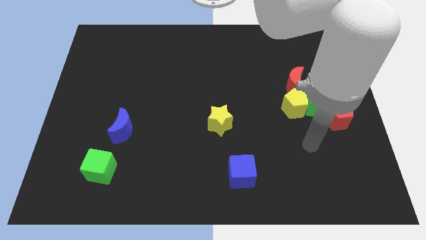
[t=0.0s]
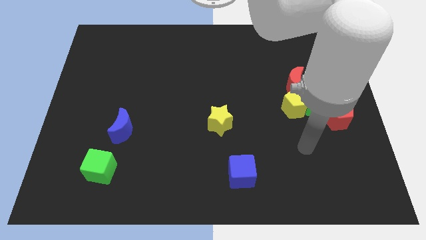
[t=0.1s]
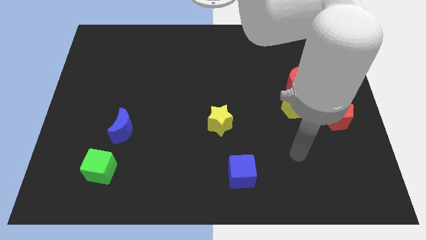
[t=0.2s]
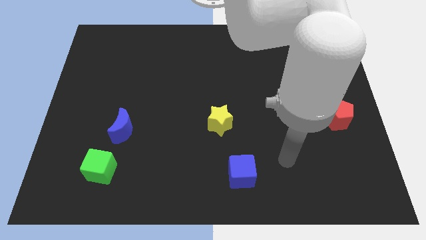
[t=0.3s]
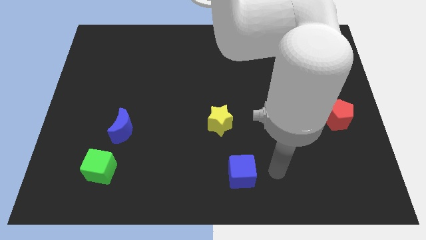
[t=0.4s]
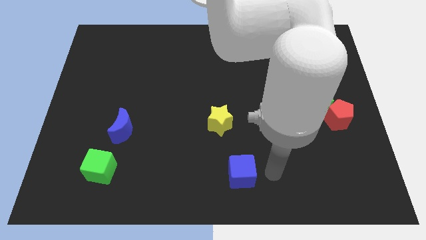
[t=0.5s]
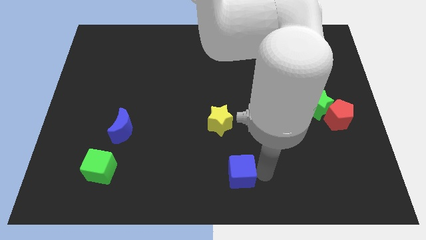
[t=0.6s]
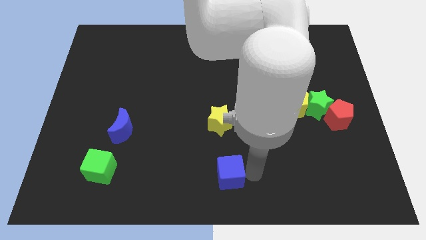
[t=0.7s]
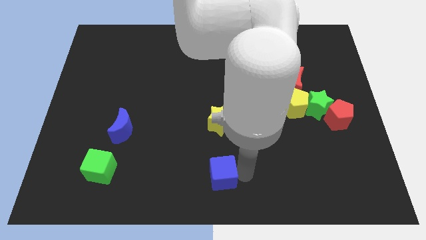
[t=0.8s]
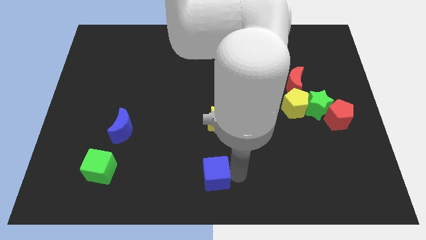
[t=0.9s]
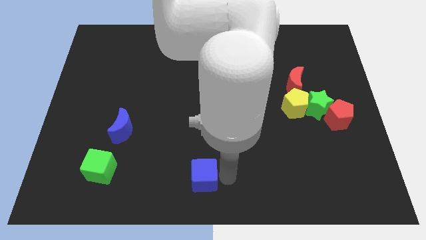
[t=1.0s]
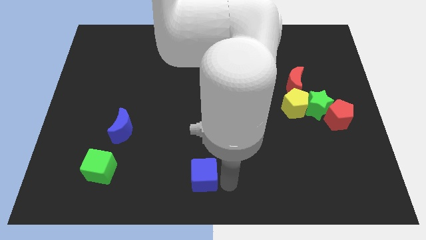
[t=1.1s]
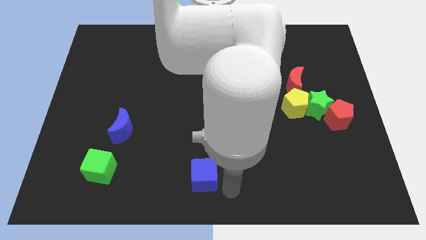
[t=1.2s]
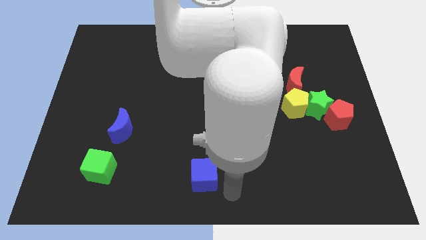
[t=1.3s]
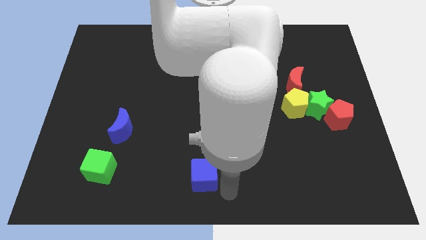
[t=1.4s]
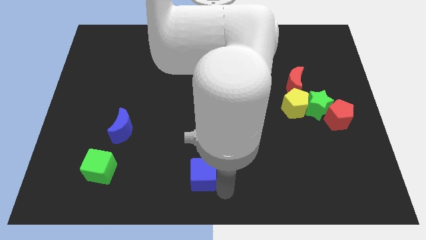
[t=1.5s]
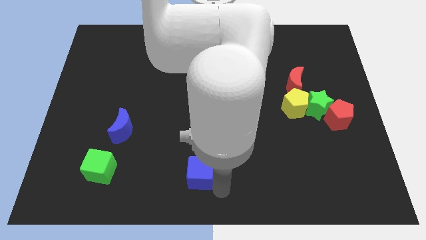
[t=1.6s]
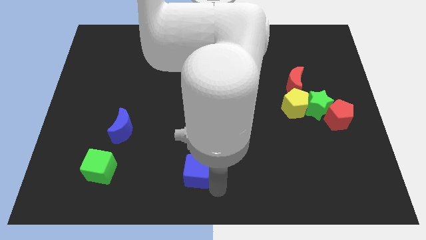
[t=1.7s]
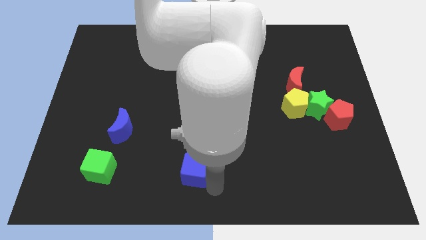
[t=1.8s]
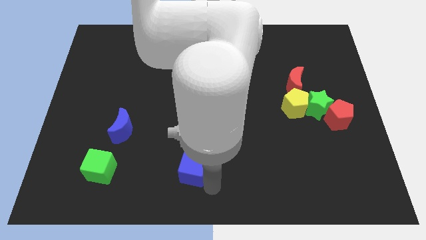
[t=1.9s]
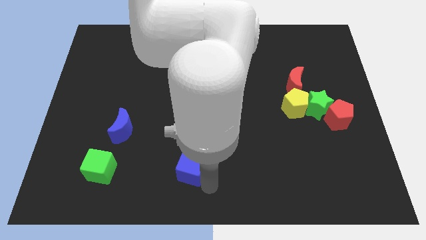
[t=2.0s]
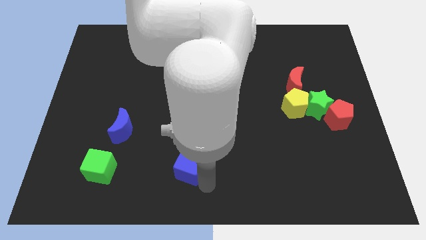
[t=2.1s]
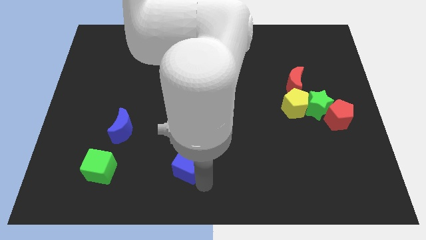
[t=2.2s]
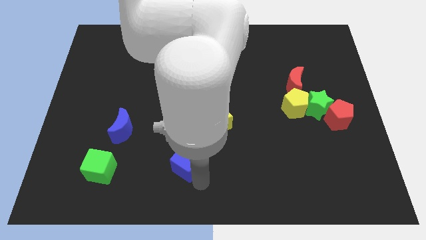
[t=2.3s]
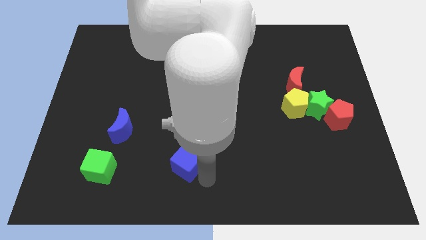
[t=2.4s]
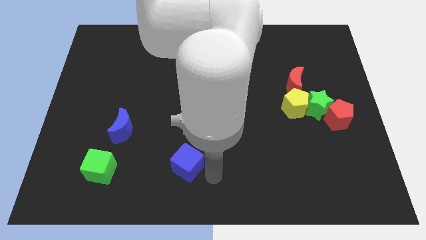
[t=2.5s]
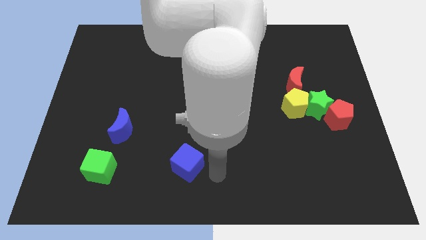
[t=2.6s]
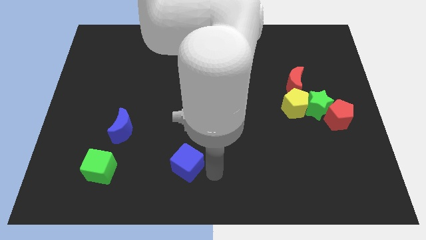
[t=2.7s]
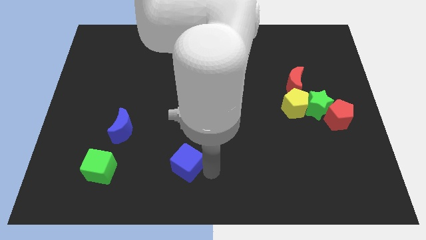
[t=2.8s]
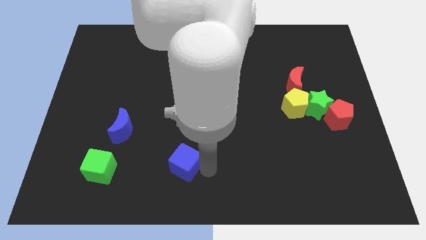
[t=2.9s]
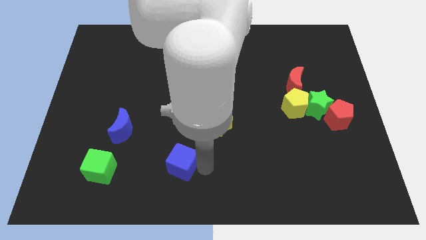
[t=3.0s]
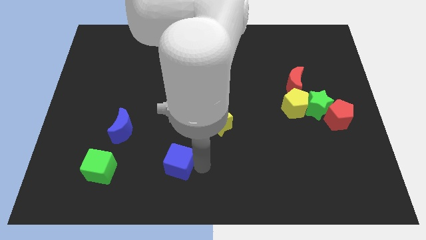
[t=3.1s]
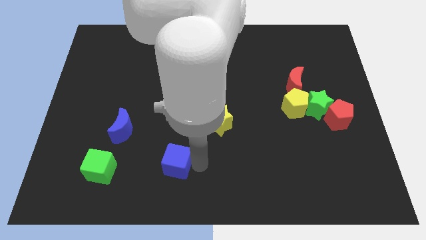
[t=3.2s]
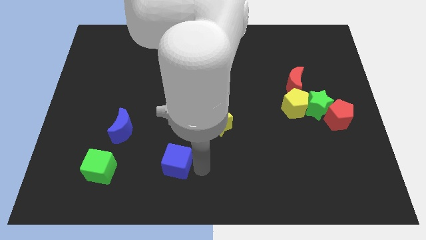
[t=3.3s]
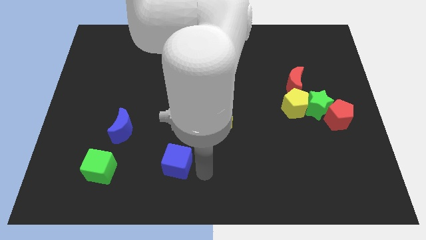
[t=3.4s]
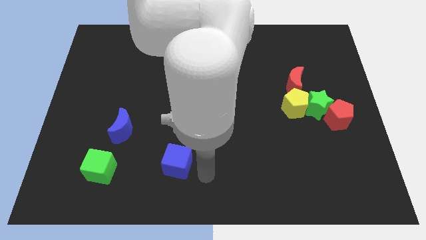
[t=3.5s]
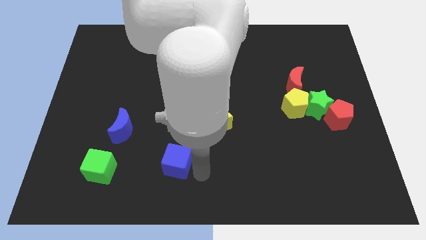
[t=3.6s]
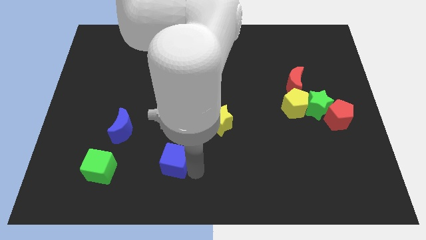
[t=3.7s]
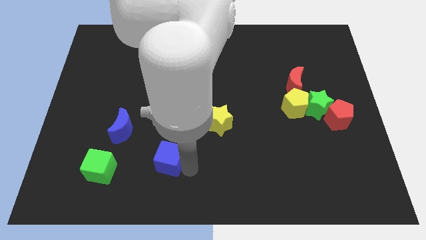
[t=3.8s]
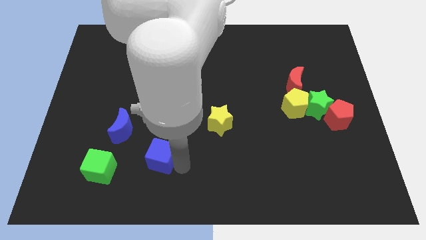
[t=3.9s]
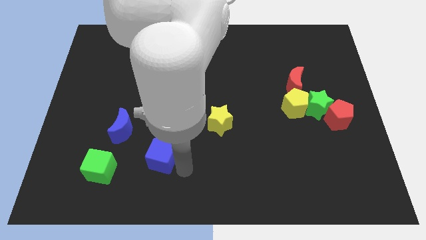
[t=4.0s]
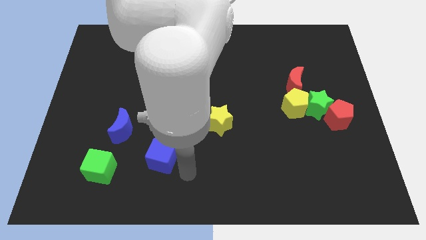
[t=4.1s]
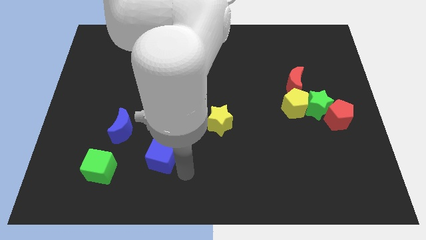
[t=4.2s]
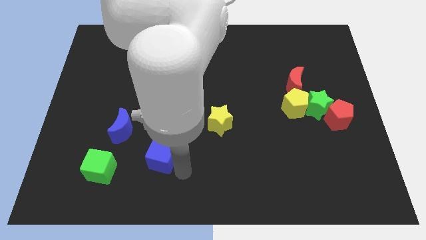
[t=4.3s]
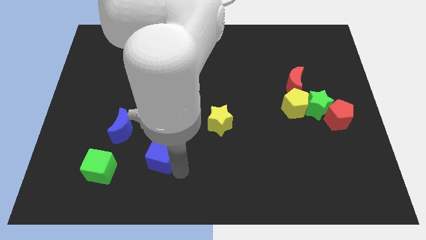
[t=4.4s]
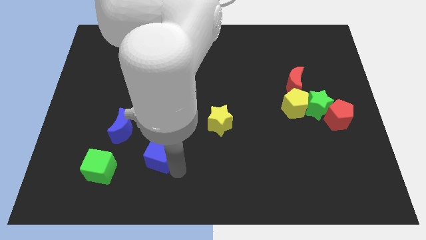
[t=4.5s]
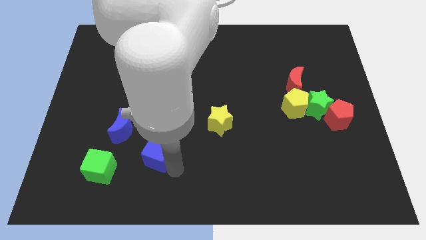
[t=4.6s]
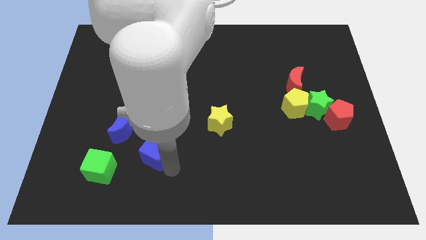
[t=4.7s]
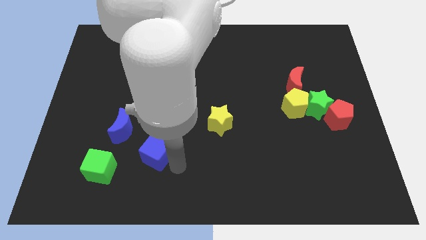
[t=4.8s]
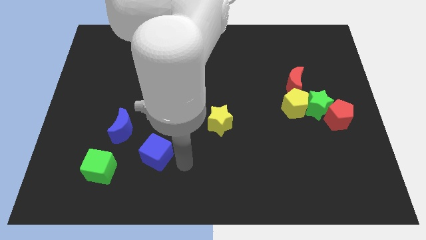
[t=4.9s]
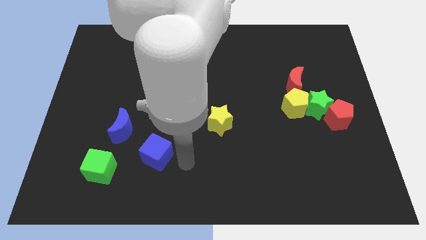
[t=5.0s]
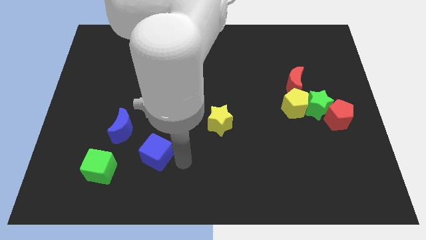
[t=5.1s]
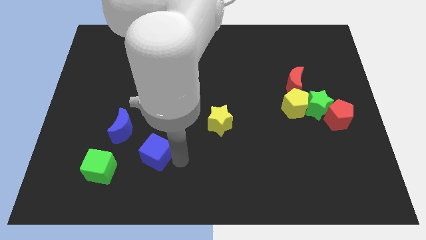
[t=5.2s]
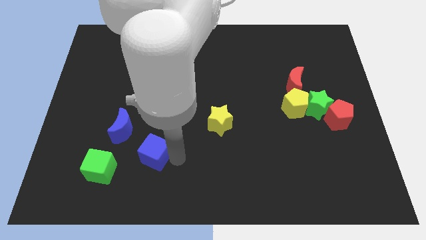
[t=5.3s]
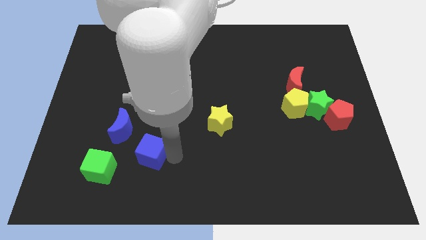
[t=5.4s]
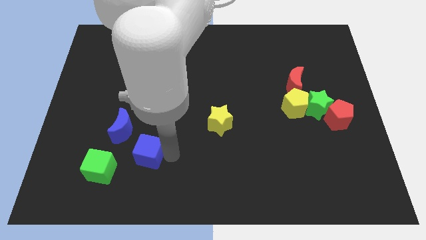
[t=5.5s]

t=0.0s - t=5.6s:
push the blue cube diagonally up and to the right of the green cube

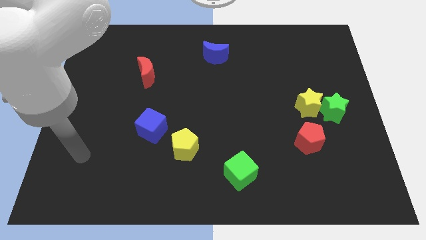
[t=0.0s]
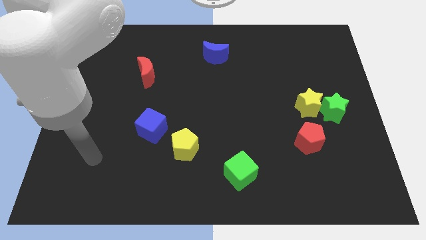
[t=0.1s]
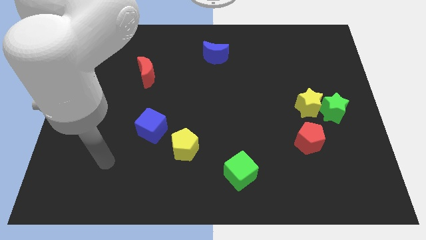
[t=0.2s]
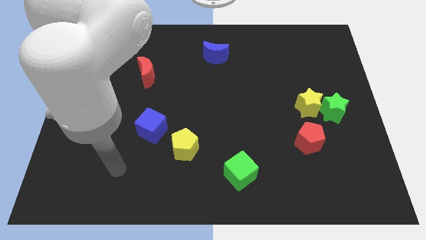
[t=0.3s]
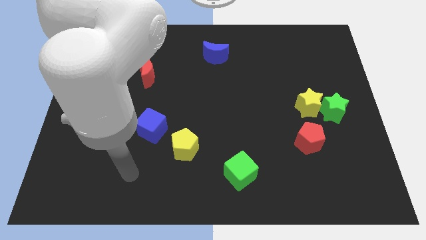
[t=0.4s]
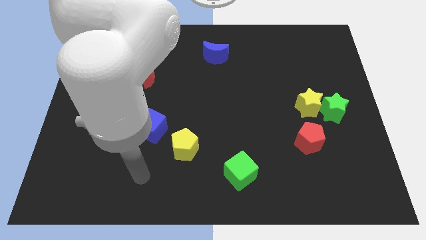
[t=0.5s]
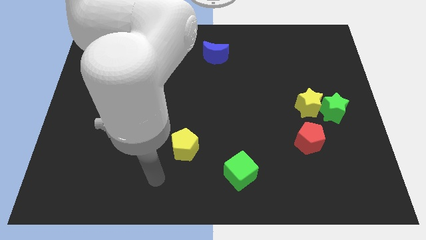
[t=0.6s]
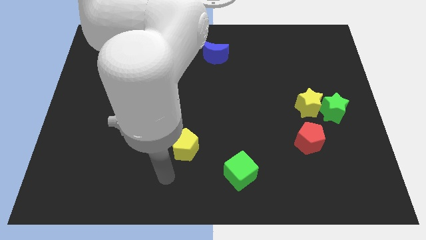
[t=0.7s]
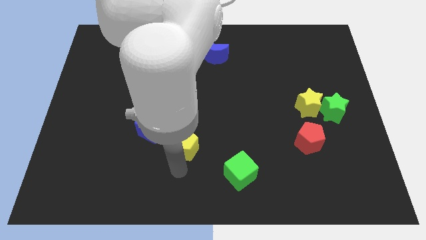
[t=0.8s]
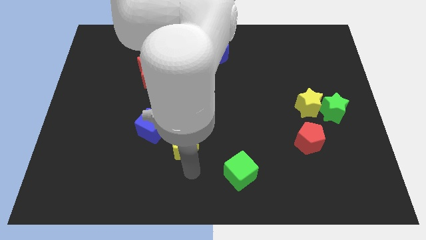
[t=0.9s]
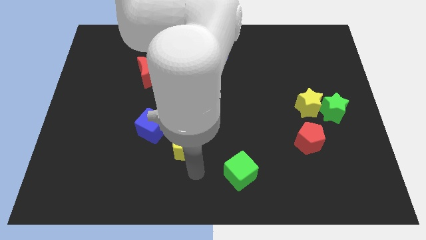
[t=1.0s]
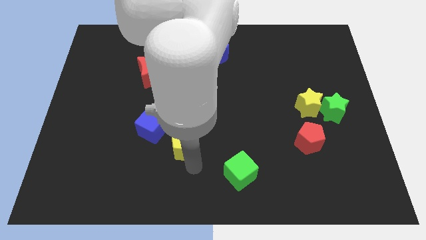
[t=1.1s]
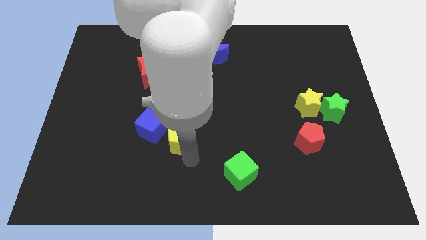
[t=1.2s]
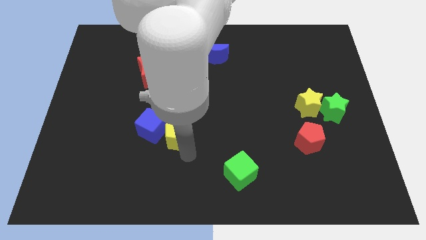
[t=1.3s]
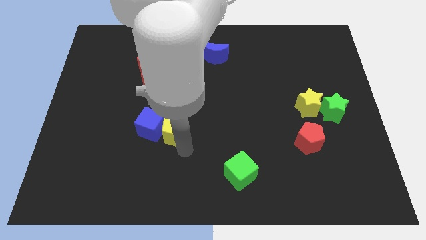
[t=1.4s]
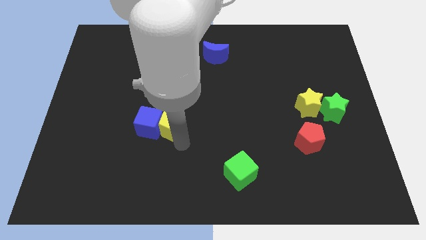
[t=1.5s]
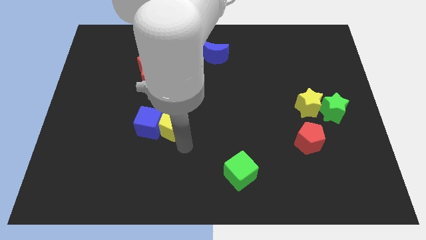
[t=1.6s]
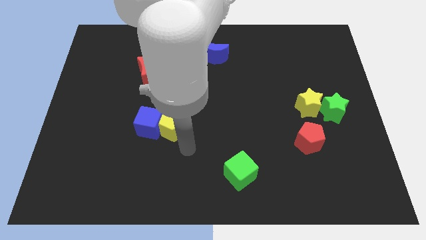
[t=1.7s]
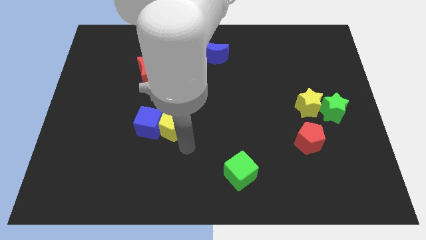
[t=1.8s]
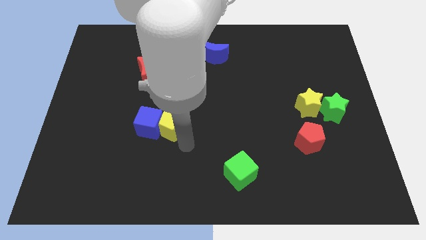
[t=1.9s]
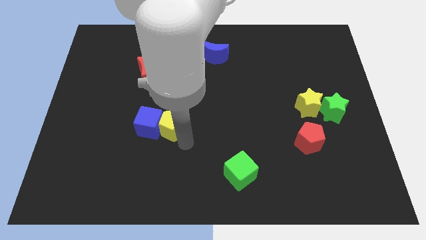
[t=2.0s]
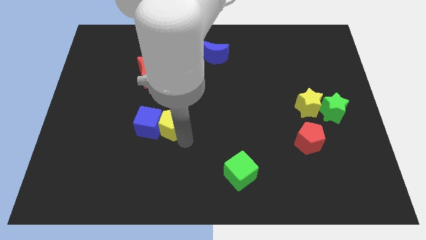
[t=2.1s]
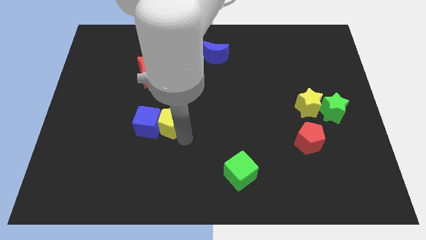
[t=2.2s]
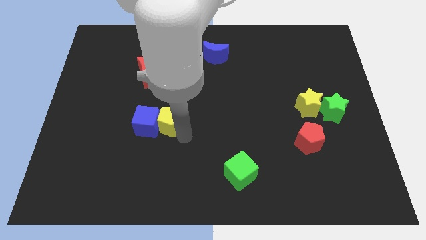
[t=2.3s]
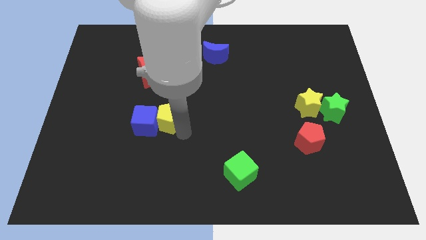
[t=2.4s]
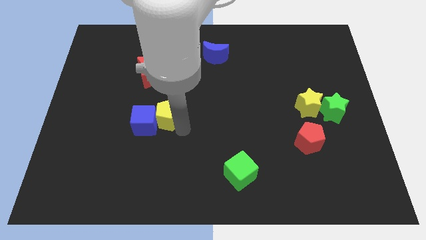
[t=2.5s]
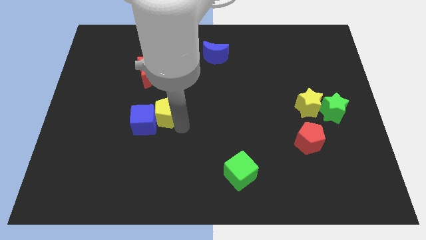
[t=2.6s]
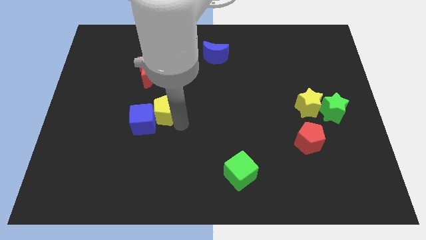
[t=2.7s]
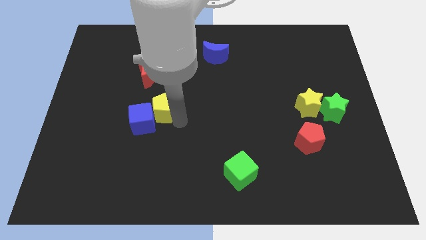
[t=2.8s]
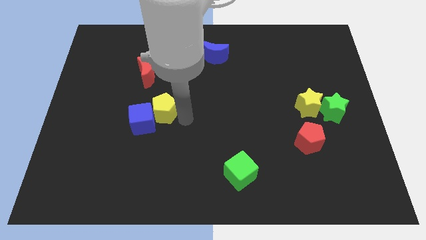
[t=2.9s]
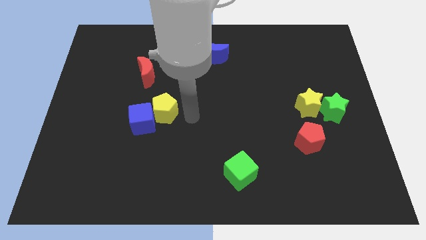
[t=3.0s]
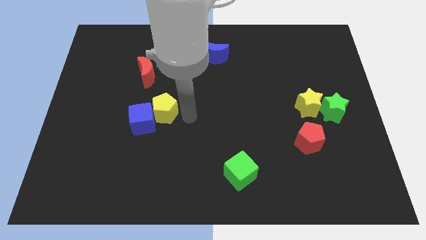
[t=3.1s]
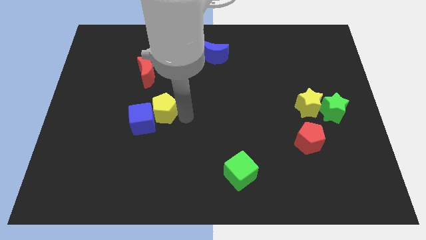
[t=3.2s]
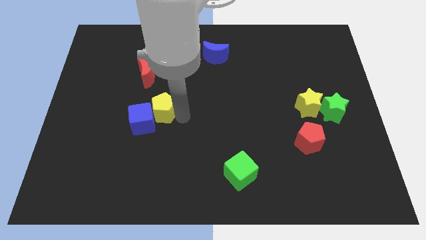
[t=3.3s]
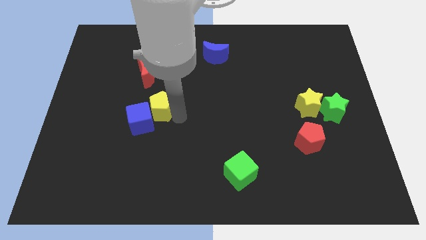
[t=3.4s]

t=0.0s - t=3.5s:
put the yellow pentagon to the bottom side of the red moon
